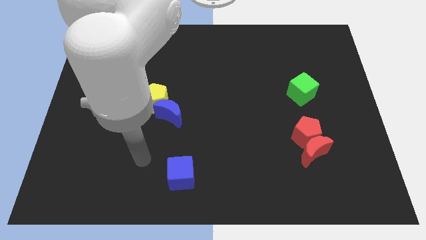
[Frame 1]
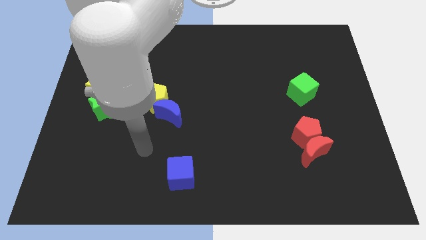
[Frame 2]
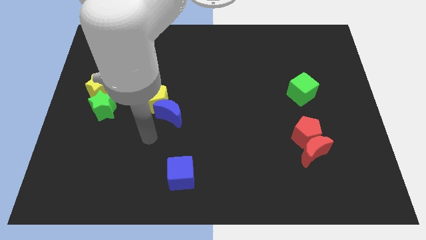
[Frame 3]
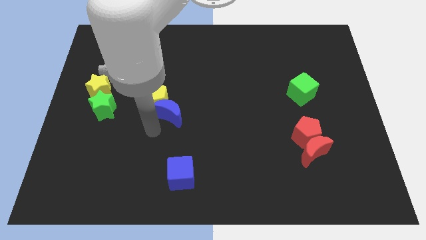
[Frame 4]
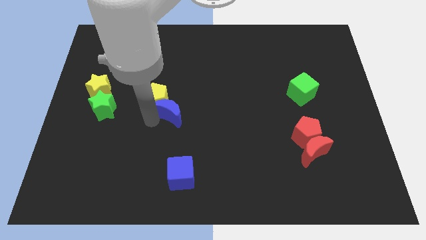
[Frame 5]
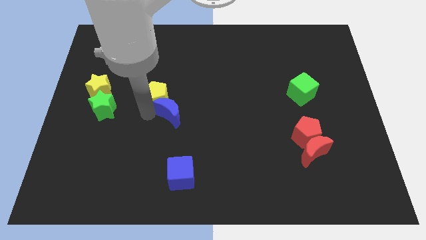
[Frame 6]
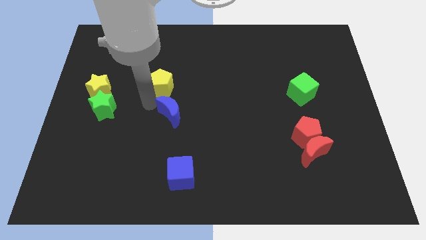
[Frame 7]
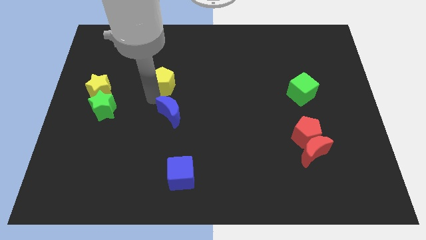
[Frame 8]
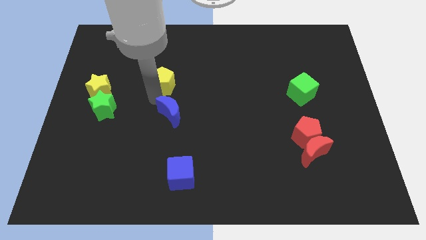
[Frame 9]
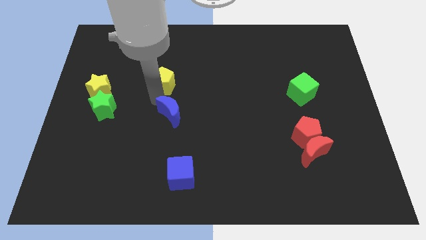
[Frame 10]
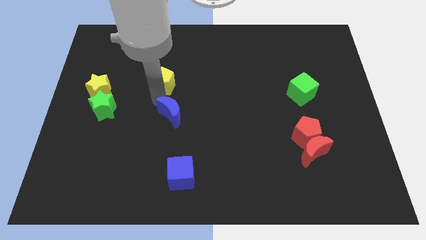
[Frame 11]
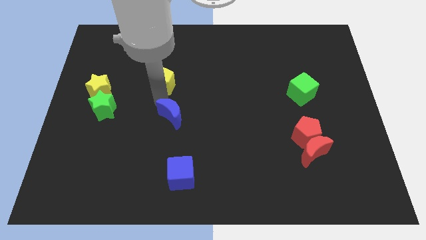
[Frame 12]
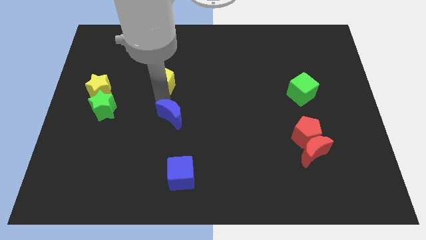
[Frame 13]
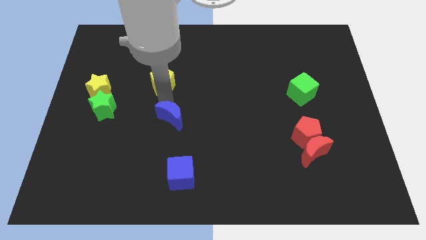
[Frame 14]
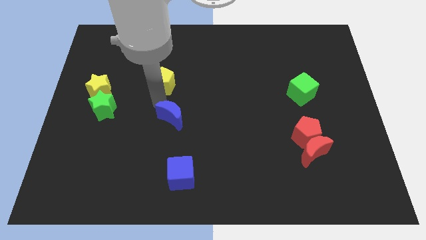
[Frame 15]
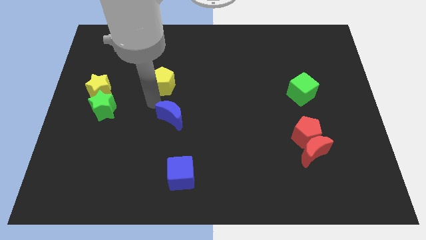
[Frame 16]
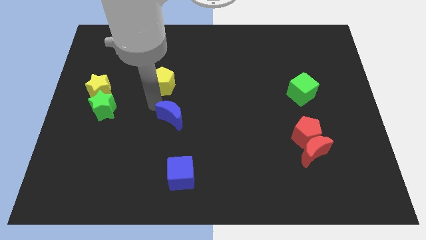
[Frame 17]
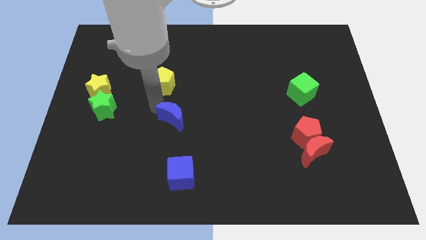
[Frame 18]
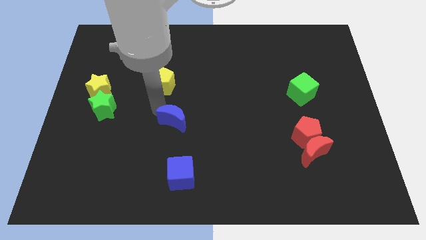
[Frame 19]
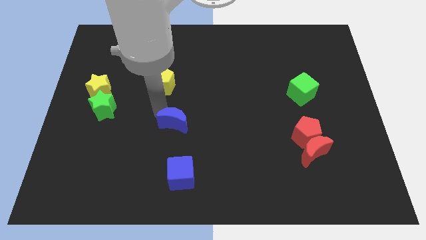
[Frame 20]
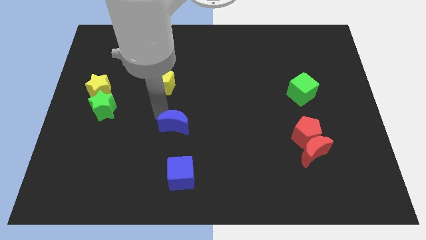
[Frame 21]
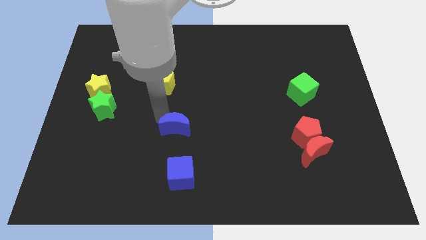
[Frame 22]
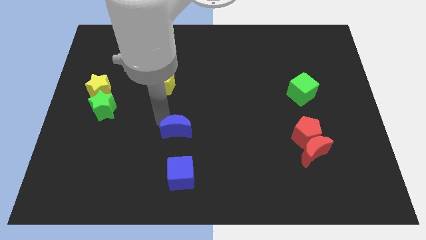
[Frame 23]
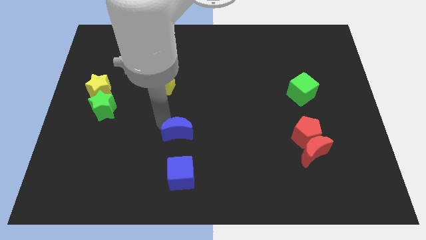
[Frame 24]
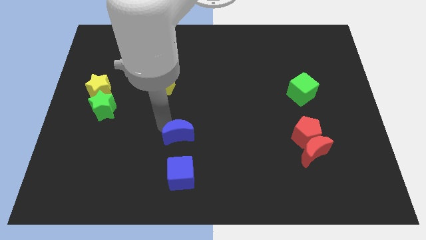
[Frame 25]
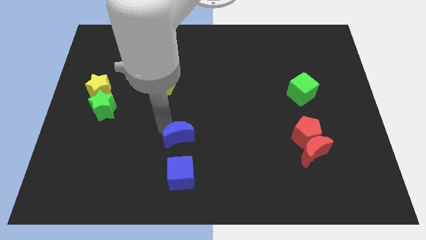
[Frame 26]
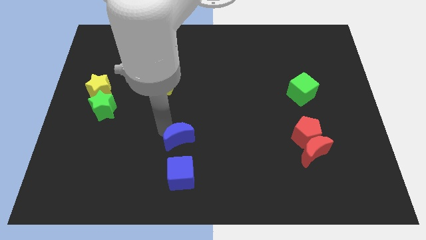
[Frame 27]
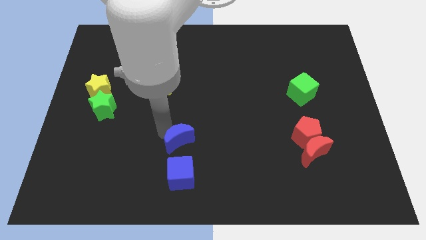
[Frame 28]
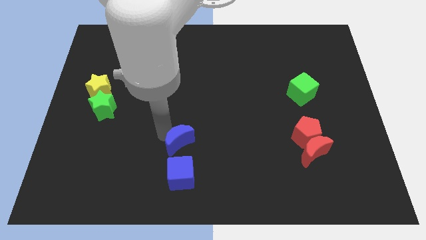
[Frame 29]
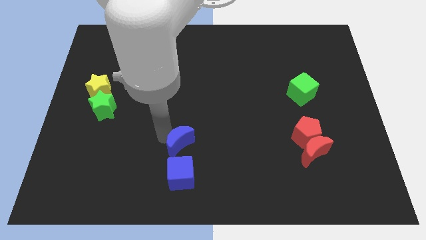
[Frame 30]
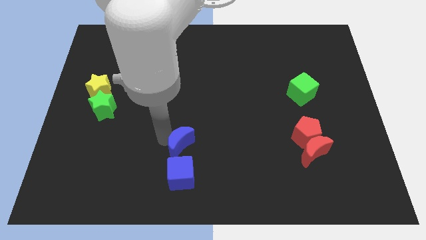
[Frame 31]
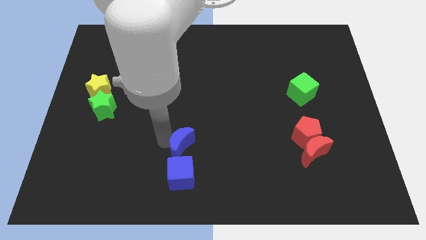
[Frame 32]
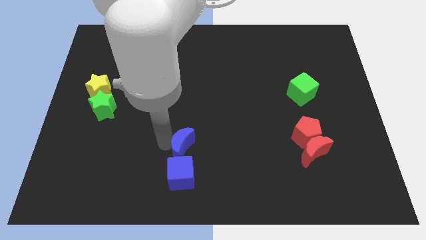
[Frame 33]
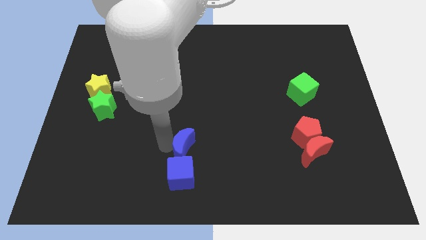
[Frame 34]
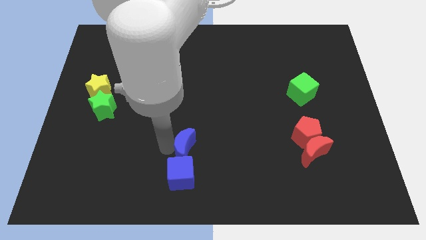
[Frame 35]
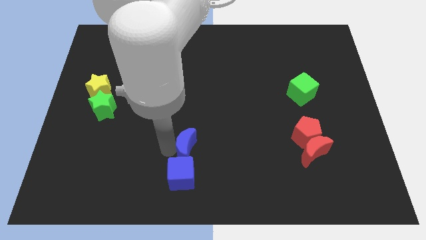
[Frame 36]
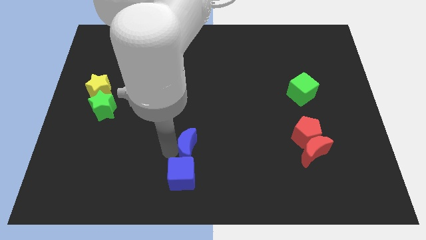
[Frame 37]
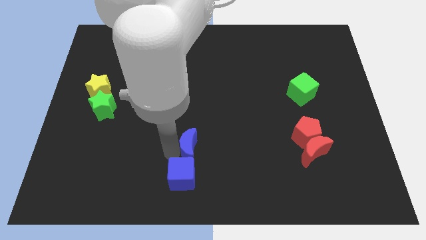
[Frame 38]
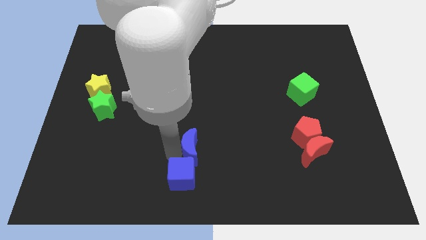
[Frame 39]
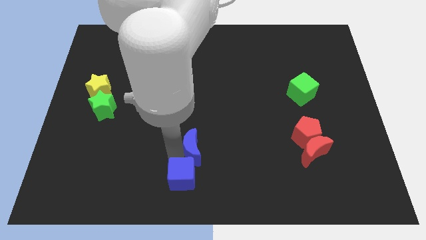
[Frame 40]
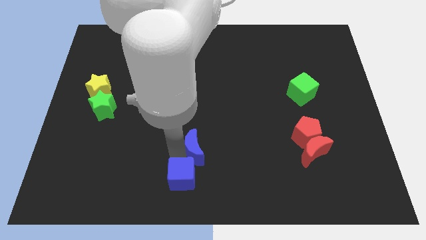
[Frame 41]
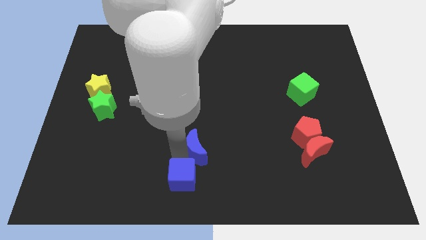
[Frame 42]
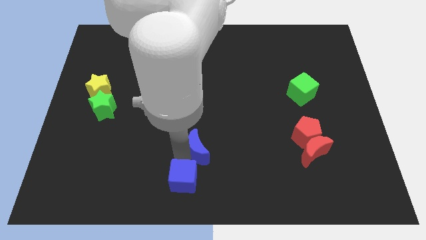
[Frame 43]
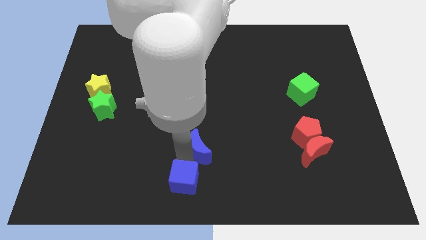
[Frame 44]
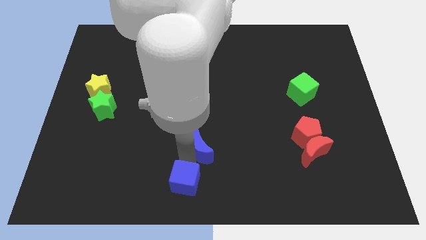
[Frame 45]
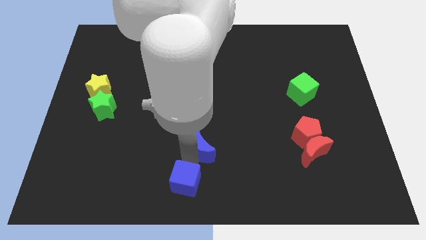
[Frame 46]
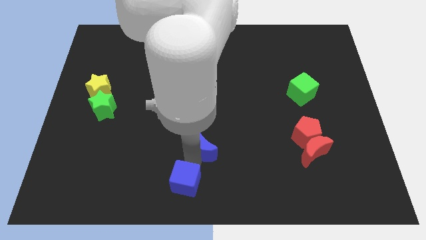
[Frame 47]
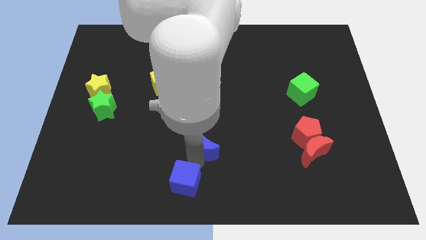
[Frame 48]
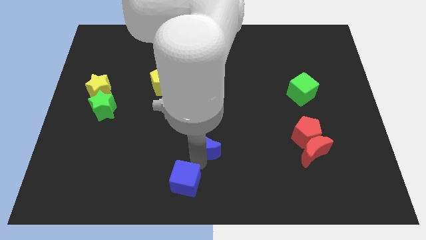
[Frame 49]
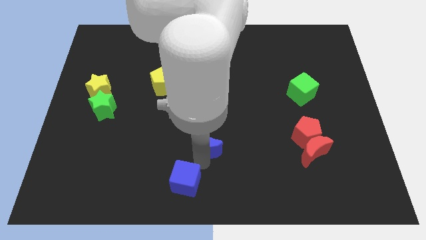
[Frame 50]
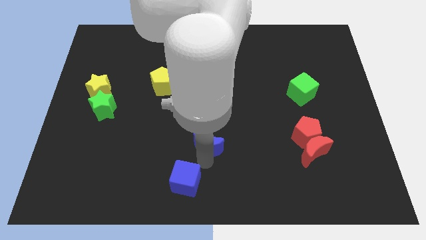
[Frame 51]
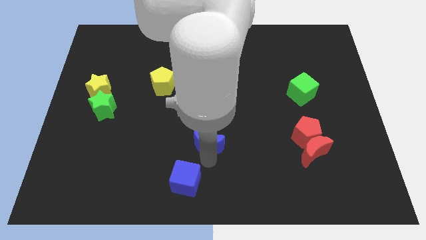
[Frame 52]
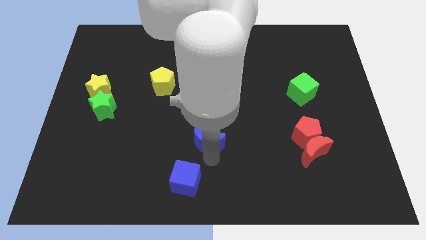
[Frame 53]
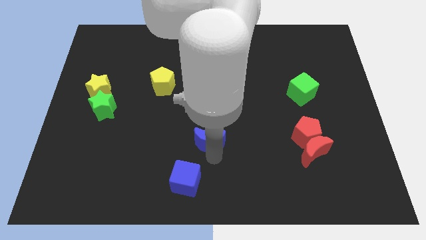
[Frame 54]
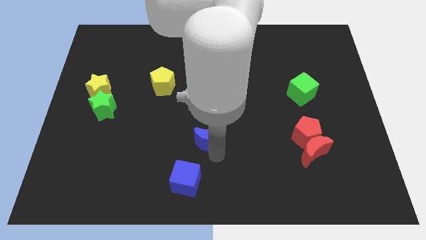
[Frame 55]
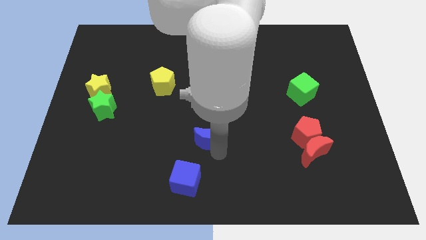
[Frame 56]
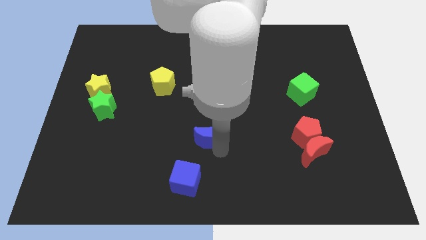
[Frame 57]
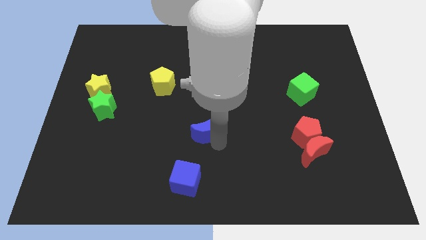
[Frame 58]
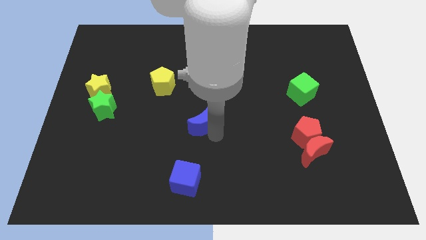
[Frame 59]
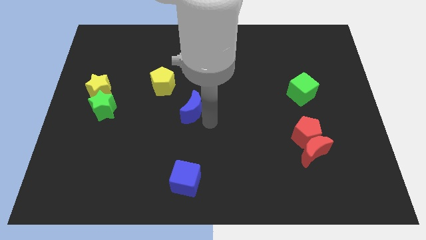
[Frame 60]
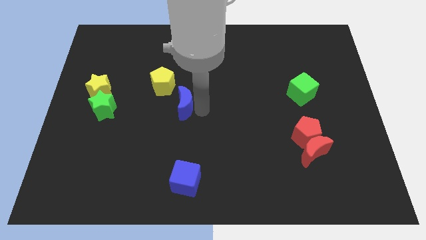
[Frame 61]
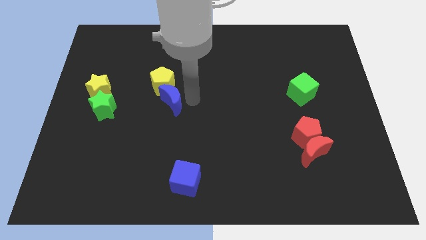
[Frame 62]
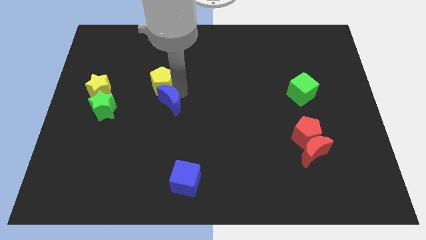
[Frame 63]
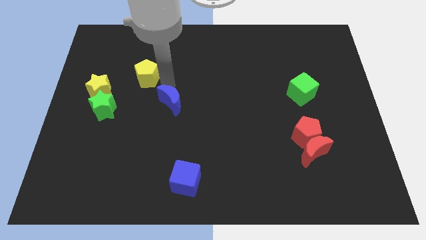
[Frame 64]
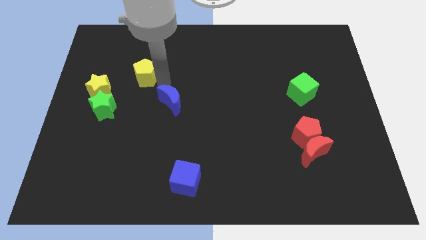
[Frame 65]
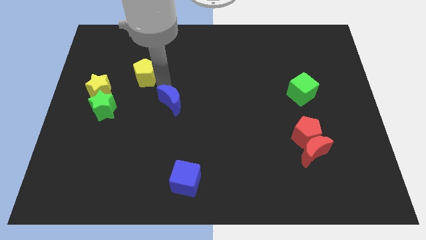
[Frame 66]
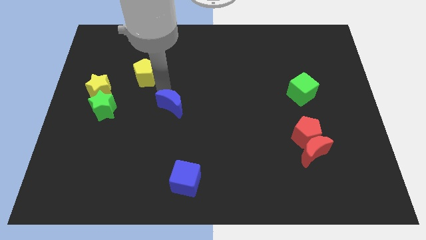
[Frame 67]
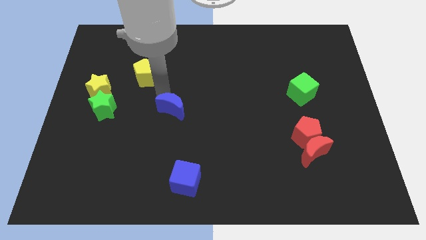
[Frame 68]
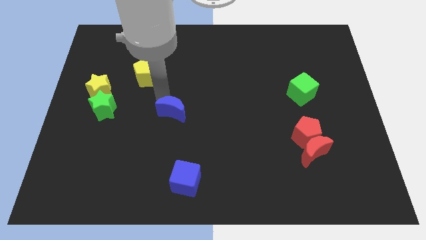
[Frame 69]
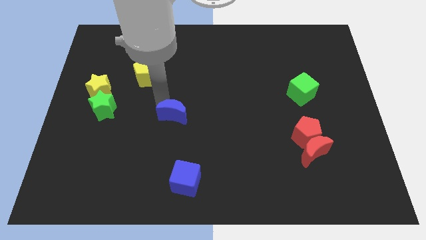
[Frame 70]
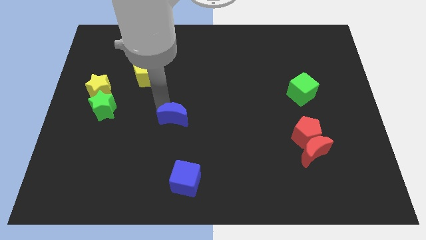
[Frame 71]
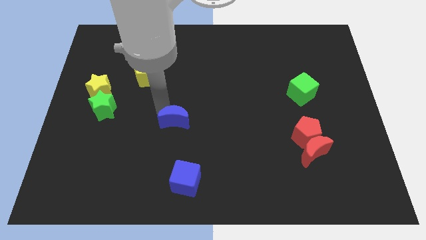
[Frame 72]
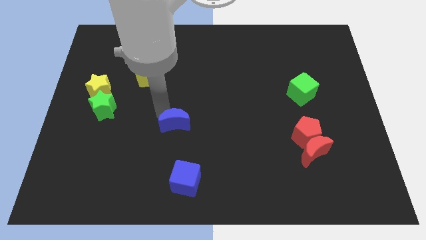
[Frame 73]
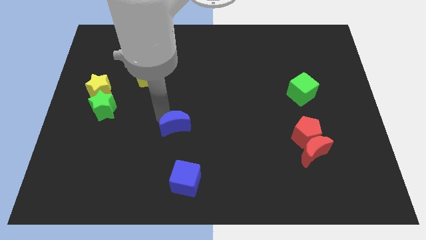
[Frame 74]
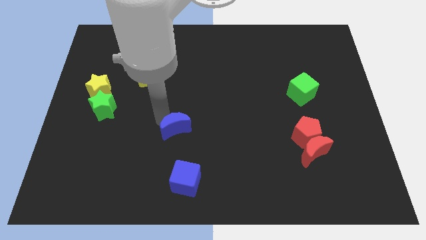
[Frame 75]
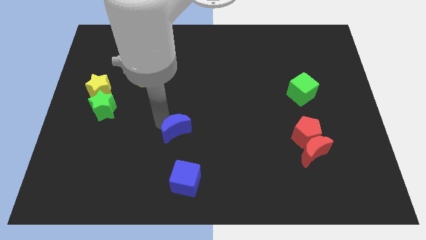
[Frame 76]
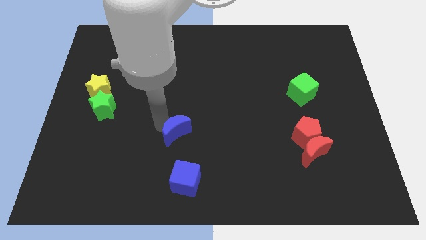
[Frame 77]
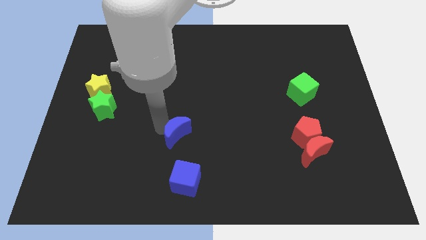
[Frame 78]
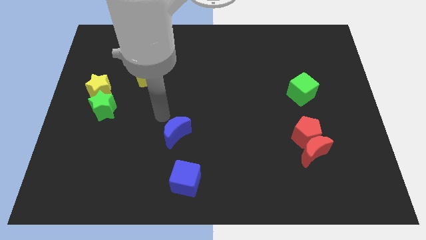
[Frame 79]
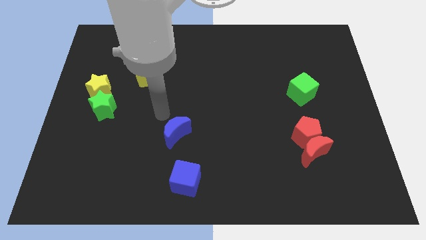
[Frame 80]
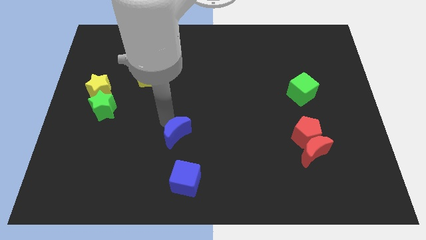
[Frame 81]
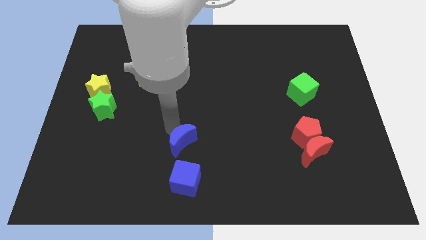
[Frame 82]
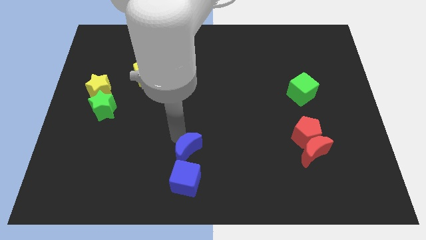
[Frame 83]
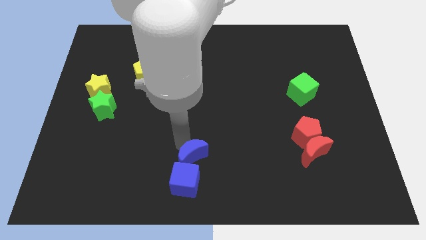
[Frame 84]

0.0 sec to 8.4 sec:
put the blue moon to the bottom side
